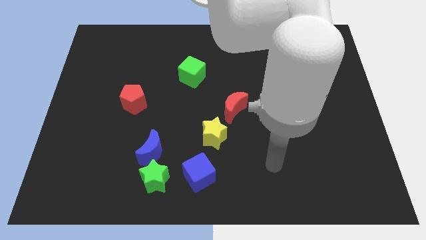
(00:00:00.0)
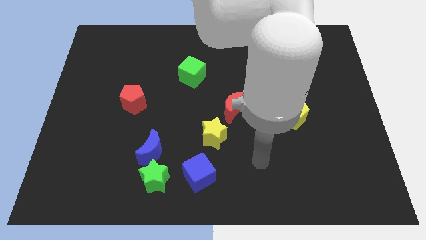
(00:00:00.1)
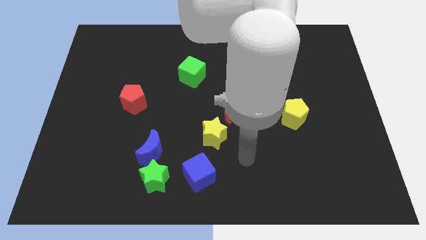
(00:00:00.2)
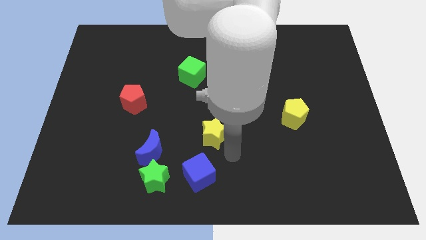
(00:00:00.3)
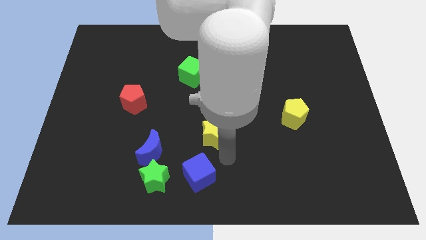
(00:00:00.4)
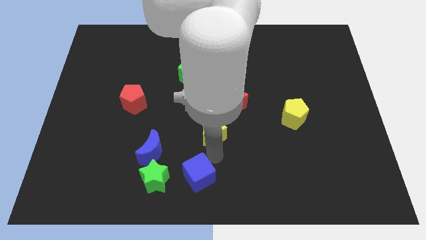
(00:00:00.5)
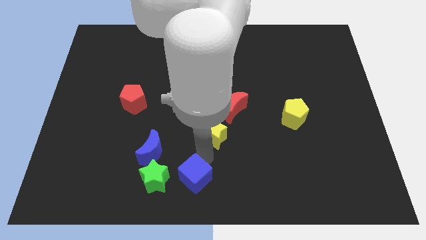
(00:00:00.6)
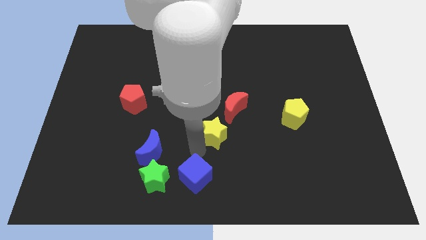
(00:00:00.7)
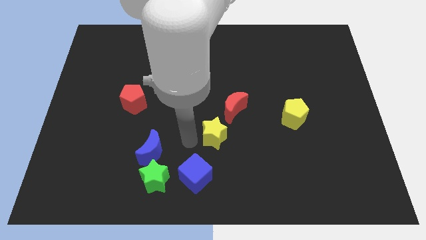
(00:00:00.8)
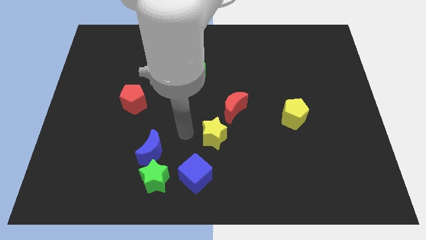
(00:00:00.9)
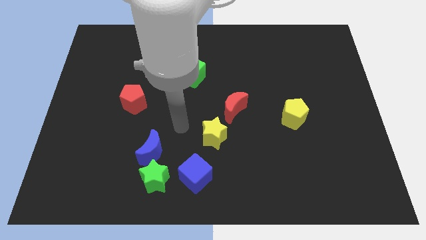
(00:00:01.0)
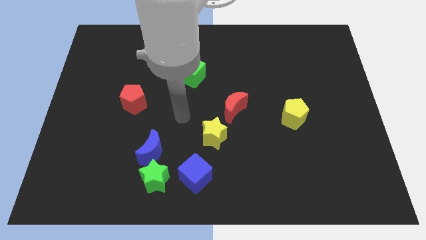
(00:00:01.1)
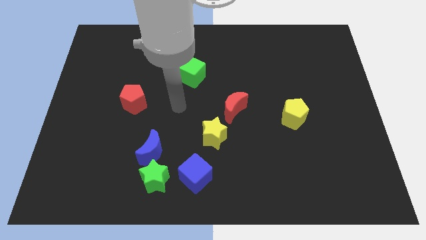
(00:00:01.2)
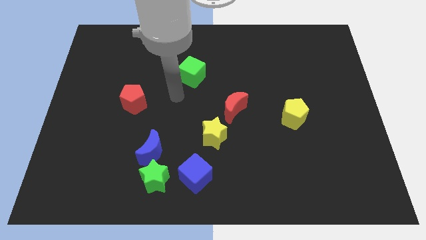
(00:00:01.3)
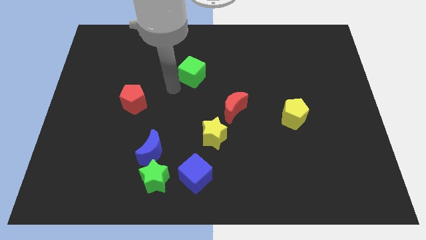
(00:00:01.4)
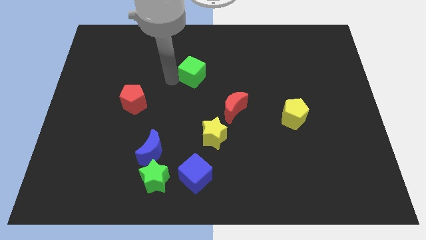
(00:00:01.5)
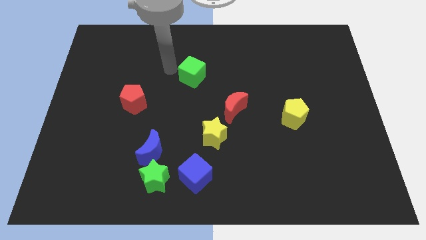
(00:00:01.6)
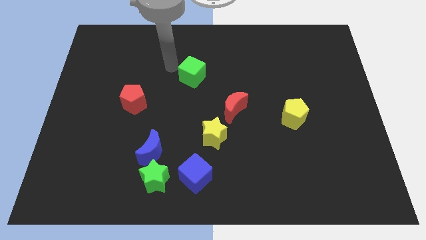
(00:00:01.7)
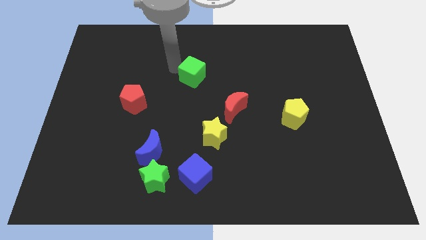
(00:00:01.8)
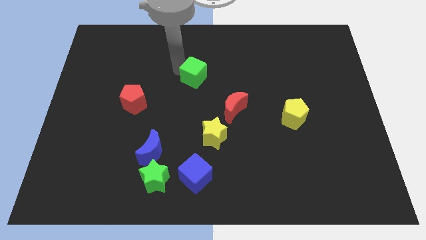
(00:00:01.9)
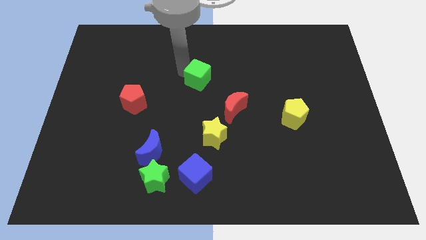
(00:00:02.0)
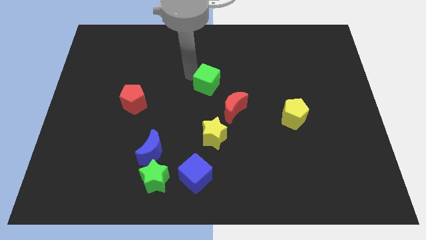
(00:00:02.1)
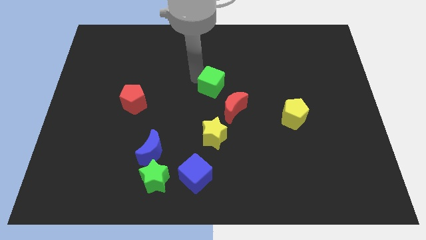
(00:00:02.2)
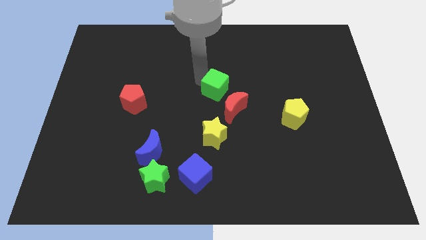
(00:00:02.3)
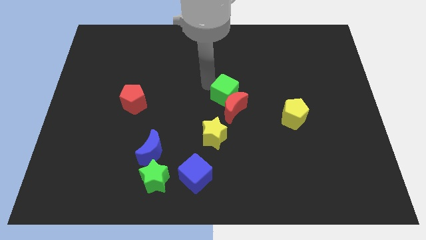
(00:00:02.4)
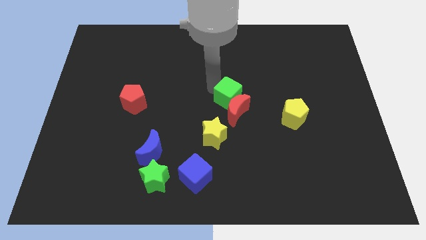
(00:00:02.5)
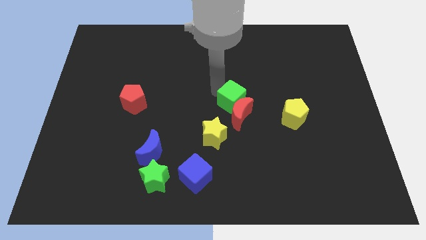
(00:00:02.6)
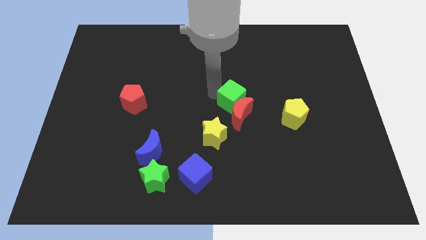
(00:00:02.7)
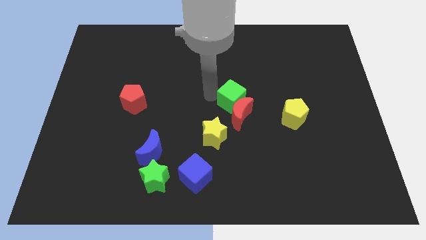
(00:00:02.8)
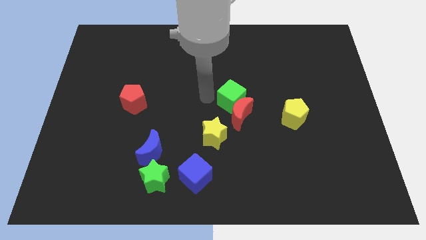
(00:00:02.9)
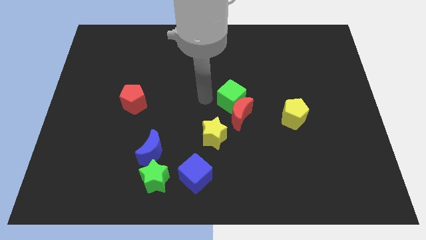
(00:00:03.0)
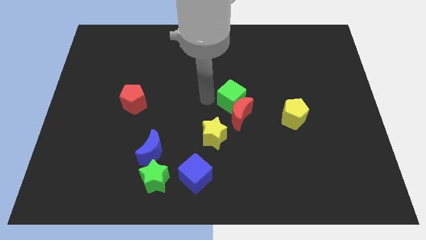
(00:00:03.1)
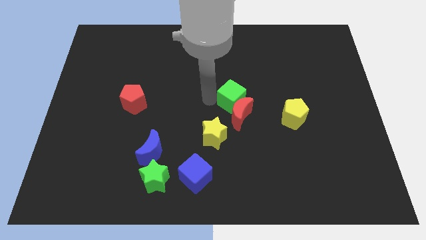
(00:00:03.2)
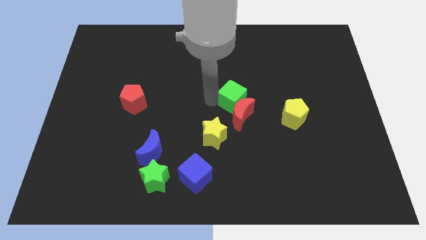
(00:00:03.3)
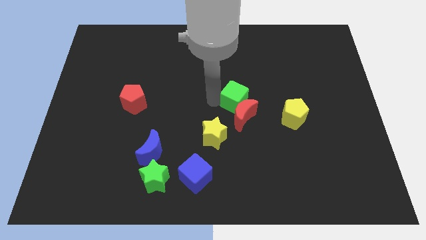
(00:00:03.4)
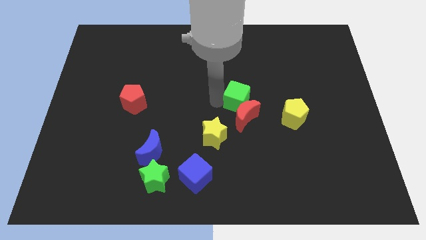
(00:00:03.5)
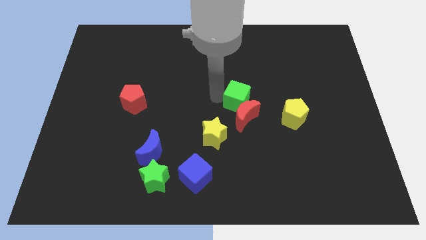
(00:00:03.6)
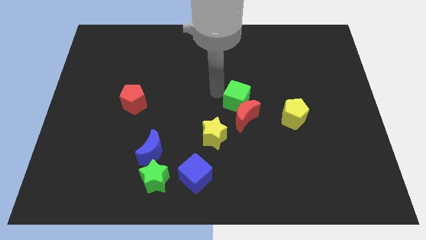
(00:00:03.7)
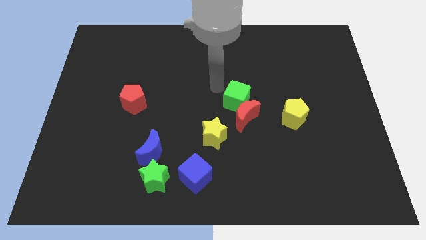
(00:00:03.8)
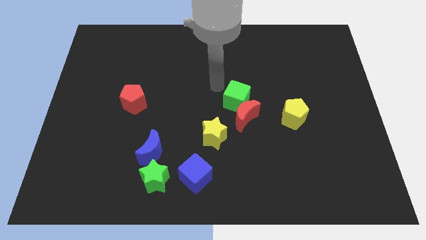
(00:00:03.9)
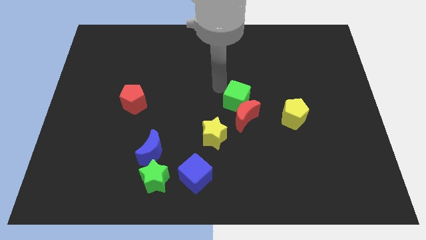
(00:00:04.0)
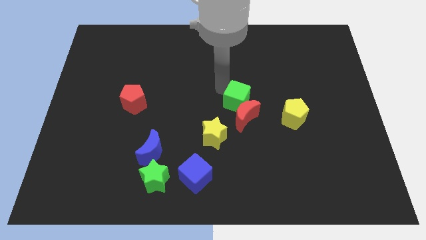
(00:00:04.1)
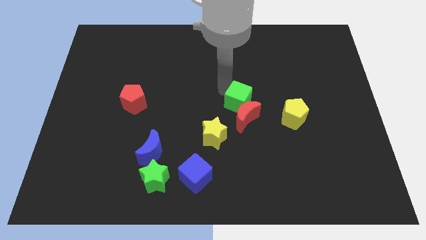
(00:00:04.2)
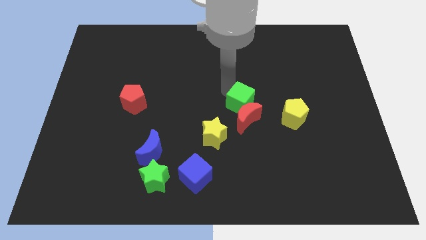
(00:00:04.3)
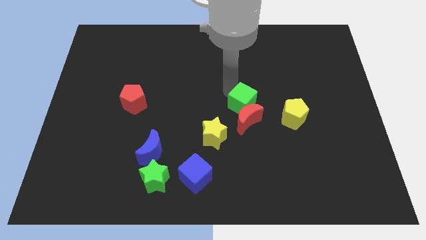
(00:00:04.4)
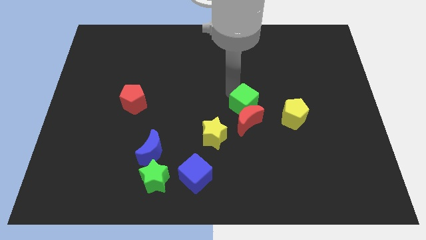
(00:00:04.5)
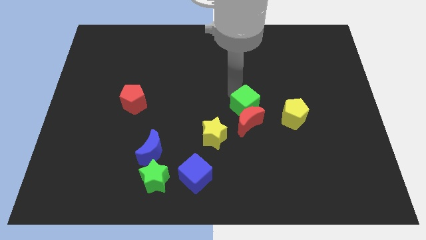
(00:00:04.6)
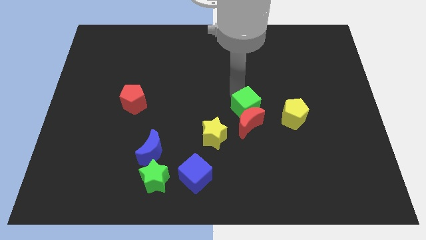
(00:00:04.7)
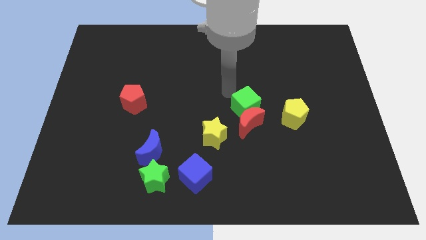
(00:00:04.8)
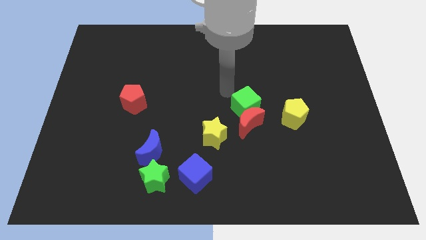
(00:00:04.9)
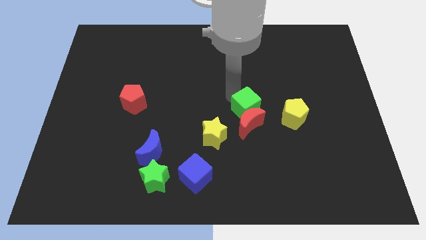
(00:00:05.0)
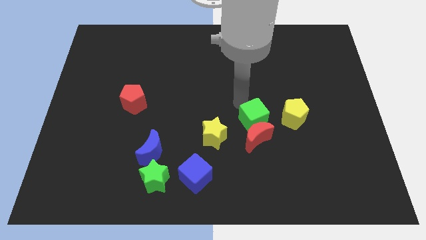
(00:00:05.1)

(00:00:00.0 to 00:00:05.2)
slide the green cube diagonally down and to the right

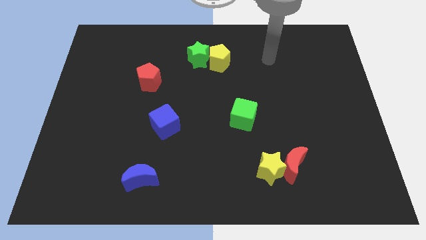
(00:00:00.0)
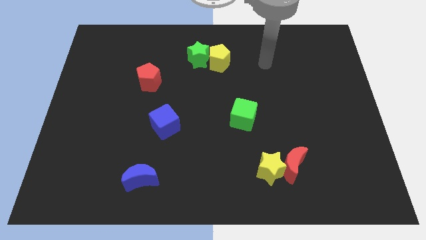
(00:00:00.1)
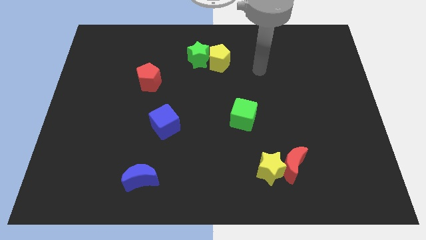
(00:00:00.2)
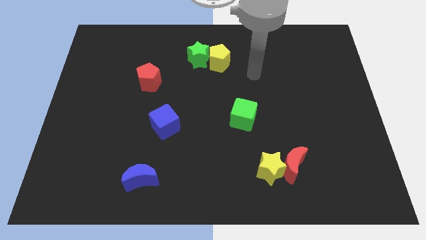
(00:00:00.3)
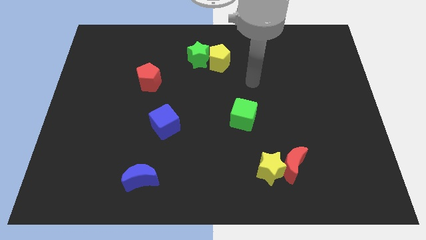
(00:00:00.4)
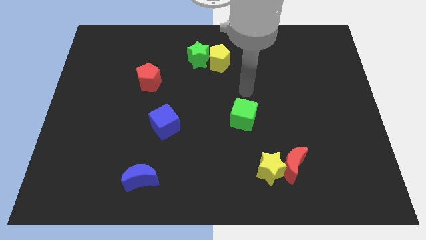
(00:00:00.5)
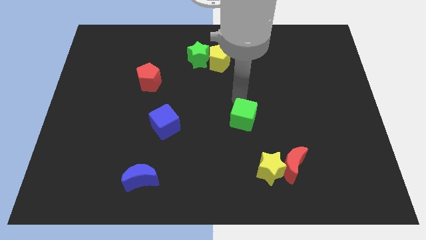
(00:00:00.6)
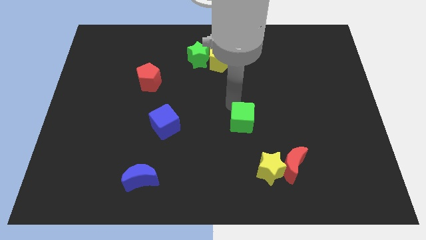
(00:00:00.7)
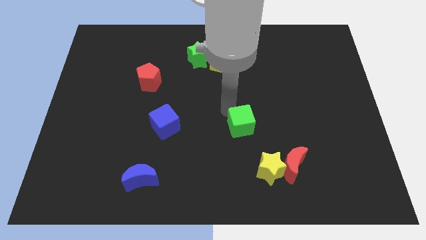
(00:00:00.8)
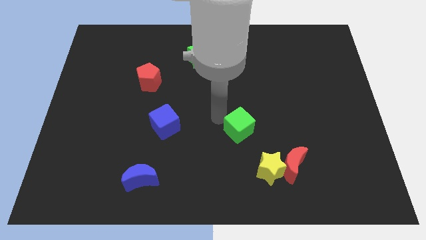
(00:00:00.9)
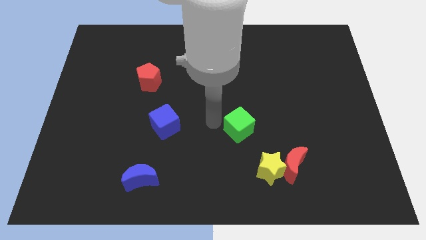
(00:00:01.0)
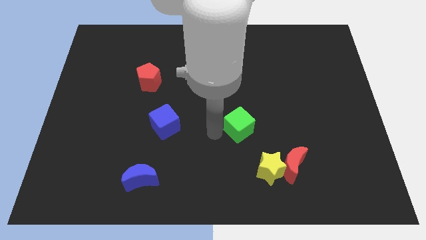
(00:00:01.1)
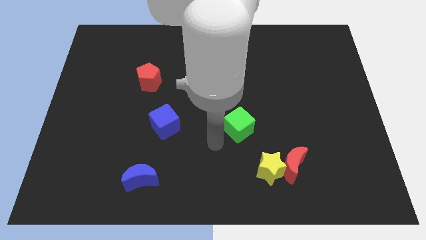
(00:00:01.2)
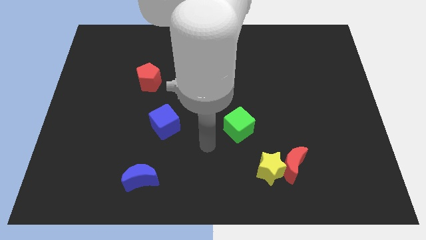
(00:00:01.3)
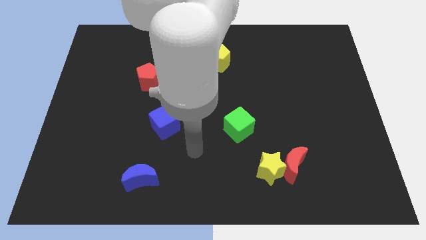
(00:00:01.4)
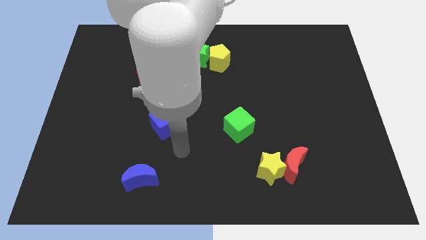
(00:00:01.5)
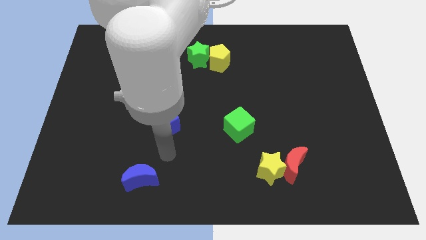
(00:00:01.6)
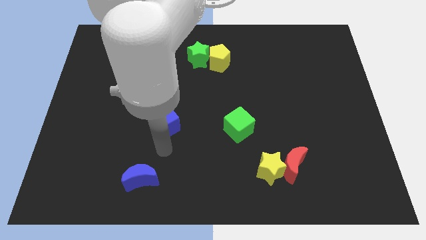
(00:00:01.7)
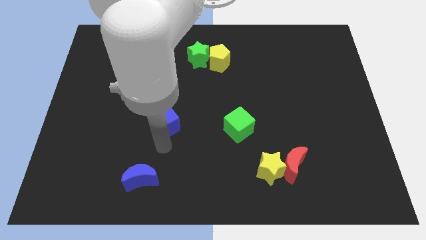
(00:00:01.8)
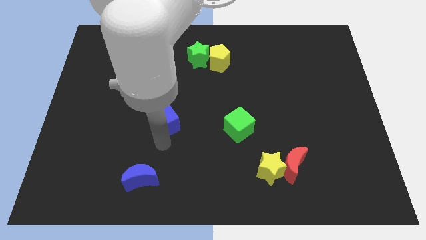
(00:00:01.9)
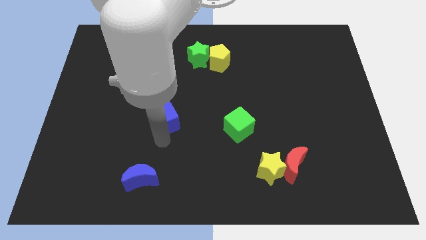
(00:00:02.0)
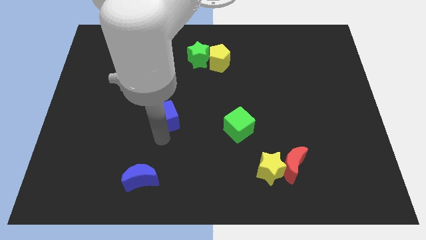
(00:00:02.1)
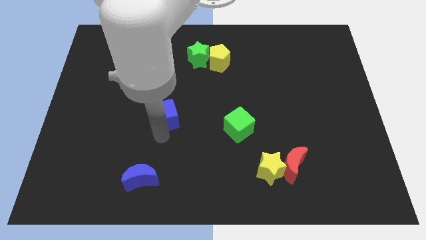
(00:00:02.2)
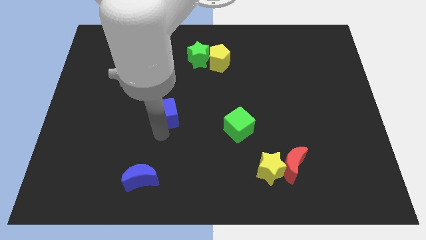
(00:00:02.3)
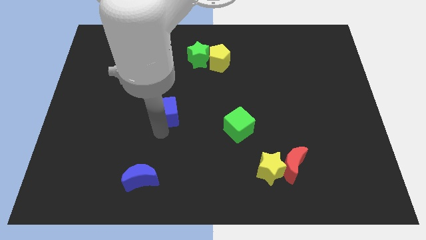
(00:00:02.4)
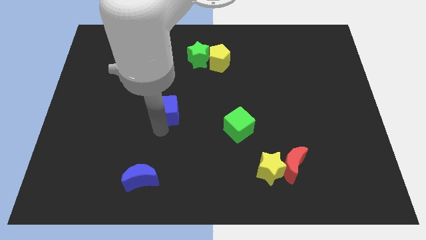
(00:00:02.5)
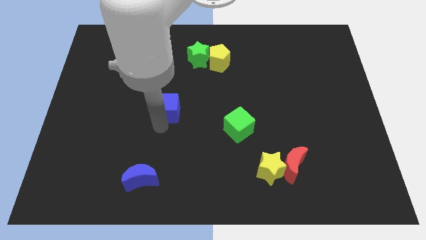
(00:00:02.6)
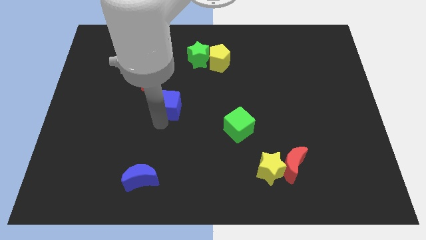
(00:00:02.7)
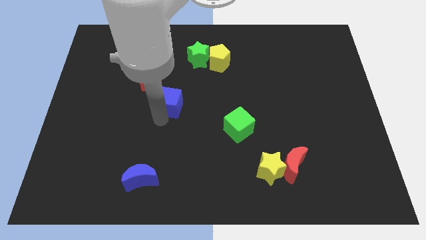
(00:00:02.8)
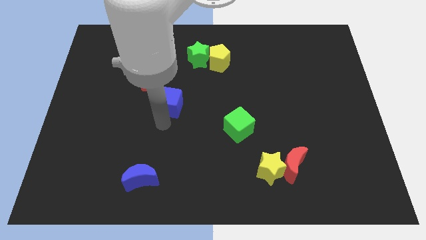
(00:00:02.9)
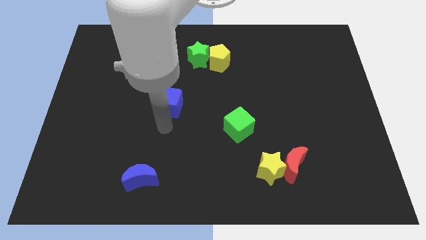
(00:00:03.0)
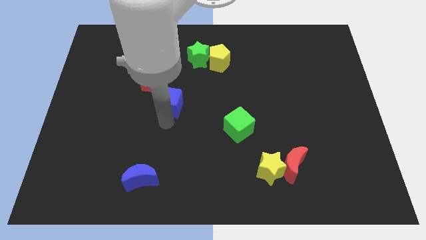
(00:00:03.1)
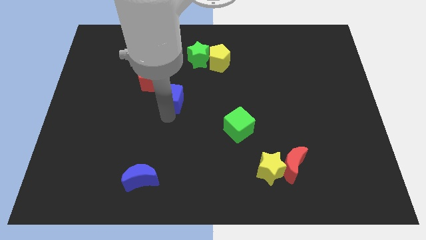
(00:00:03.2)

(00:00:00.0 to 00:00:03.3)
slightly move the blue cube upwards
